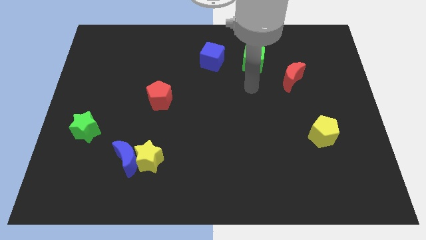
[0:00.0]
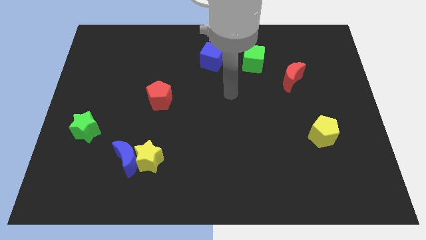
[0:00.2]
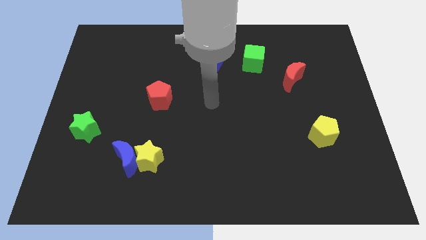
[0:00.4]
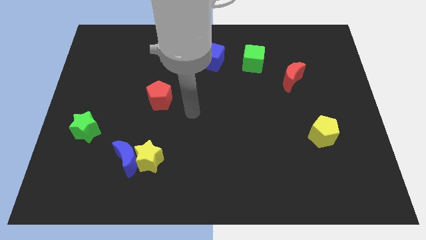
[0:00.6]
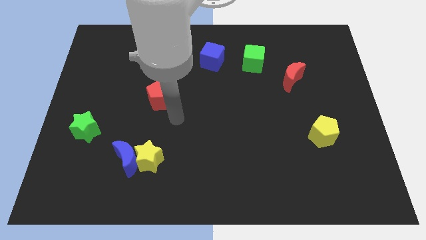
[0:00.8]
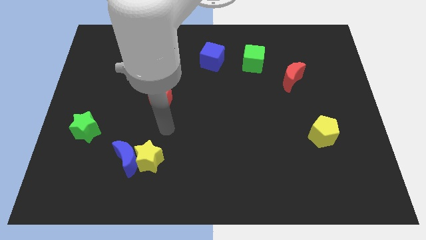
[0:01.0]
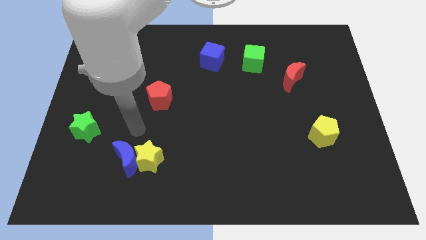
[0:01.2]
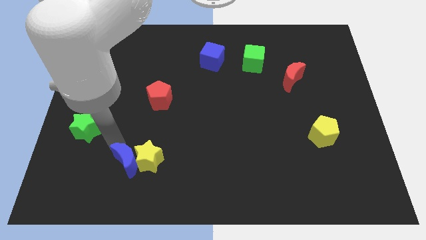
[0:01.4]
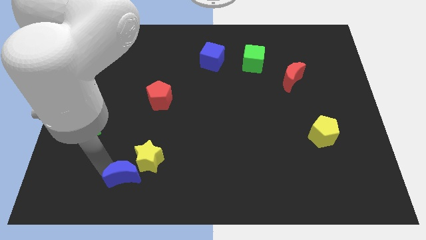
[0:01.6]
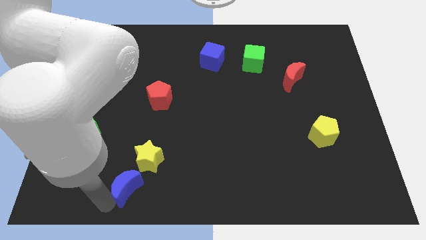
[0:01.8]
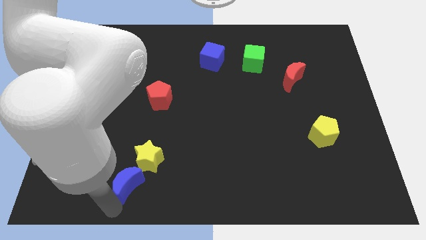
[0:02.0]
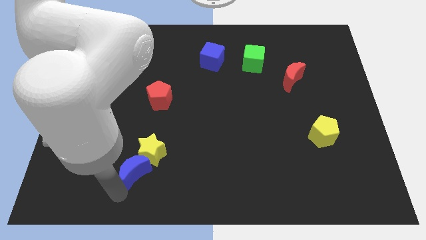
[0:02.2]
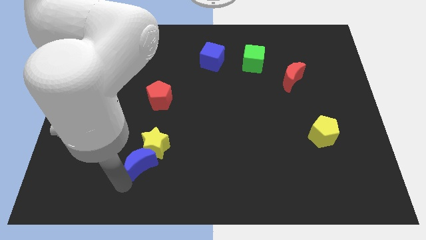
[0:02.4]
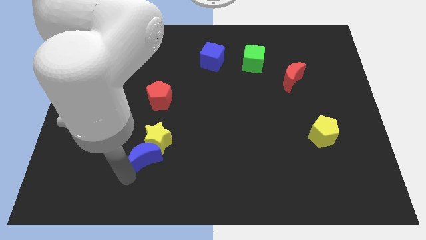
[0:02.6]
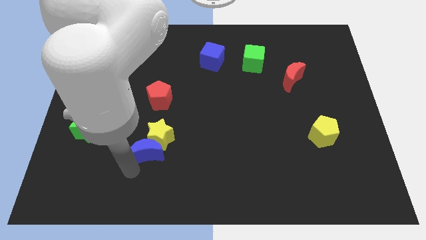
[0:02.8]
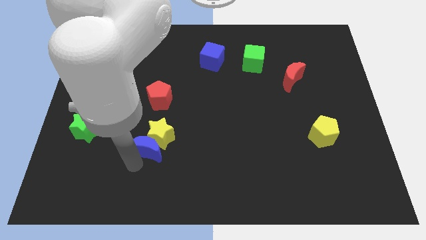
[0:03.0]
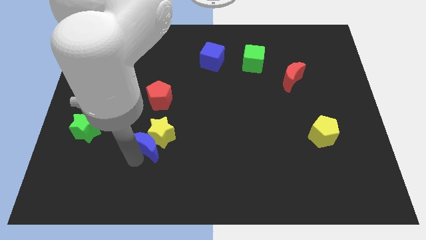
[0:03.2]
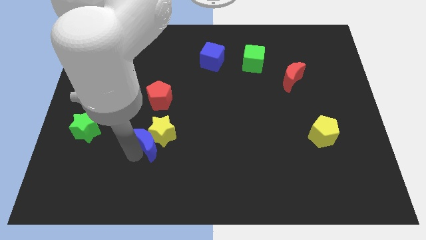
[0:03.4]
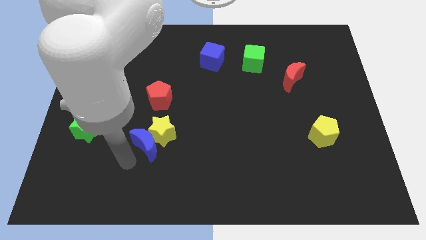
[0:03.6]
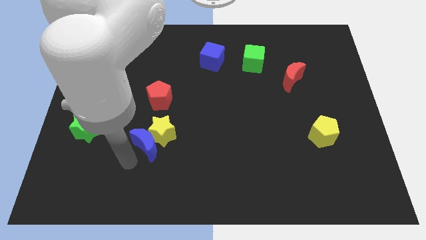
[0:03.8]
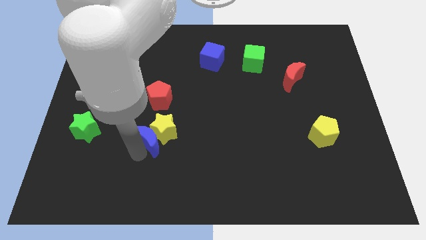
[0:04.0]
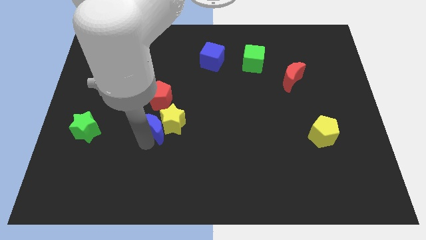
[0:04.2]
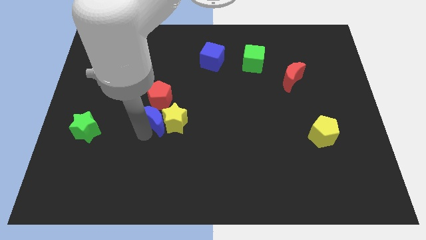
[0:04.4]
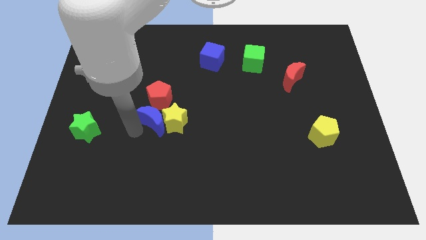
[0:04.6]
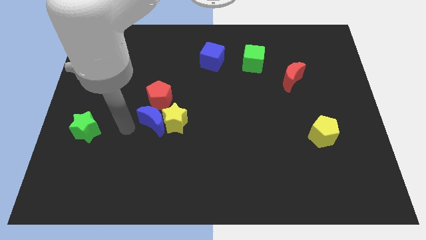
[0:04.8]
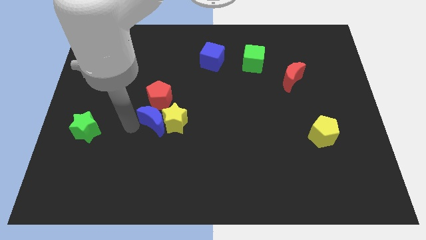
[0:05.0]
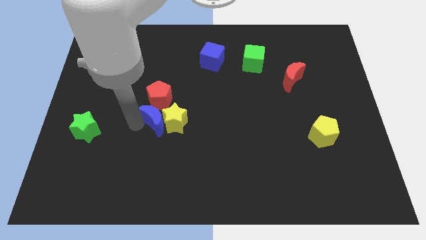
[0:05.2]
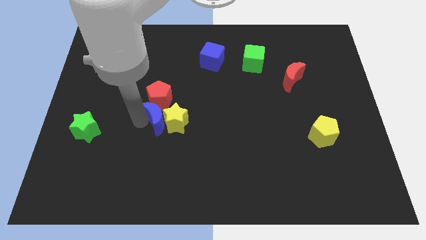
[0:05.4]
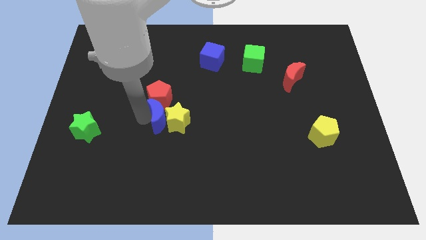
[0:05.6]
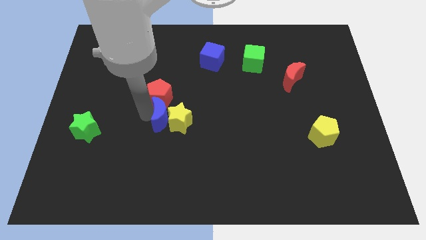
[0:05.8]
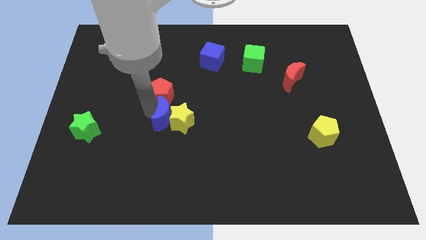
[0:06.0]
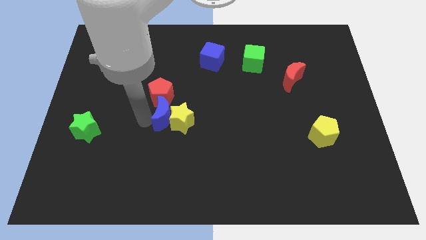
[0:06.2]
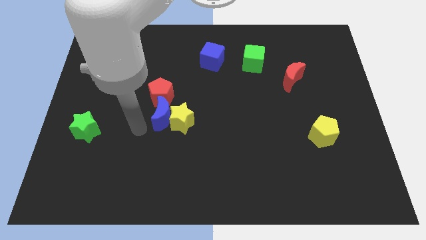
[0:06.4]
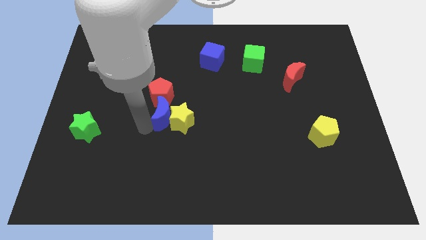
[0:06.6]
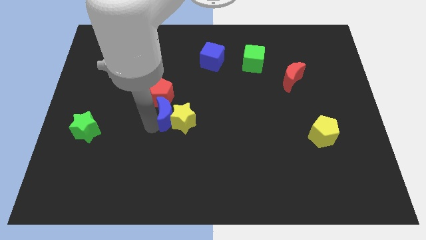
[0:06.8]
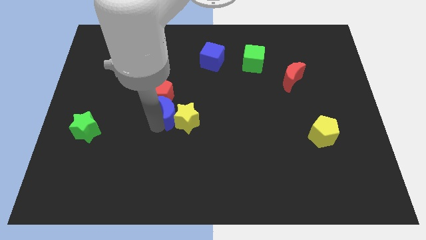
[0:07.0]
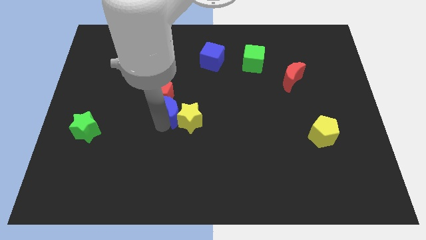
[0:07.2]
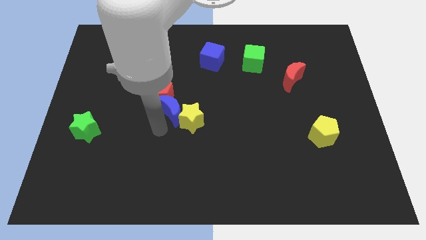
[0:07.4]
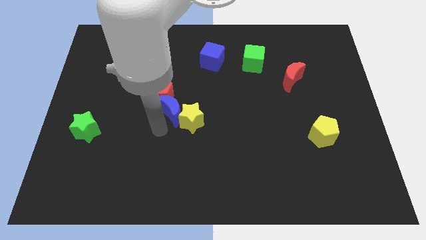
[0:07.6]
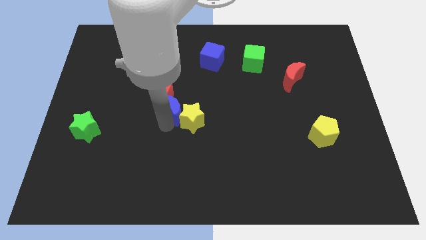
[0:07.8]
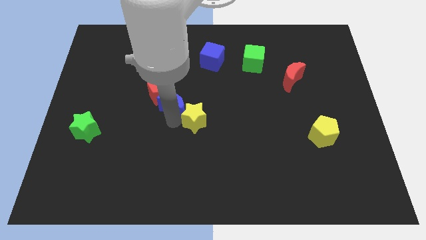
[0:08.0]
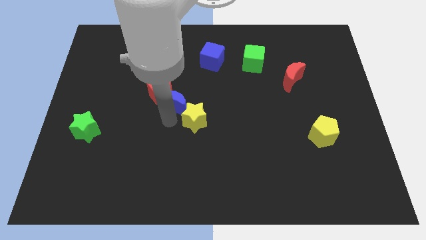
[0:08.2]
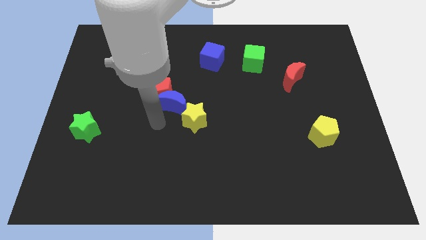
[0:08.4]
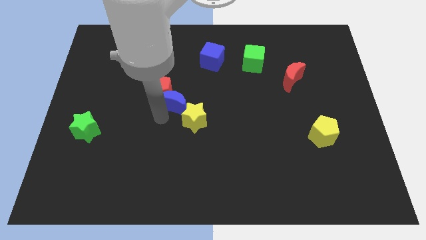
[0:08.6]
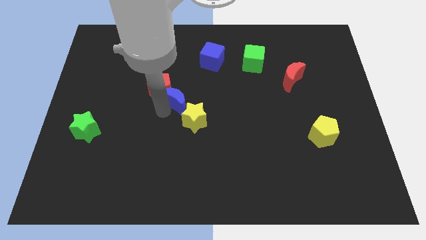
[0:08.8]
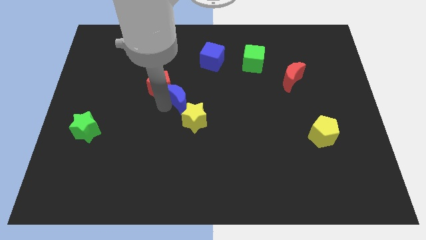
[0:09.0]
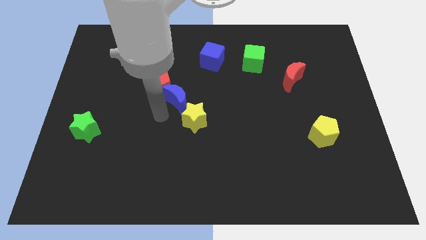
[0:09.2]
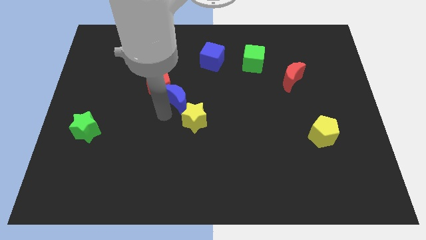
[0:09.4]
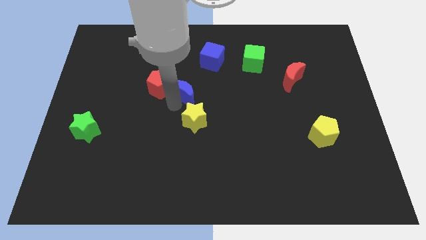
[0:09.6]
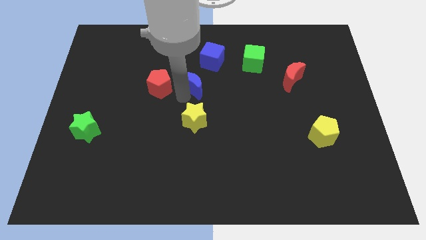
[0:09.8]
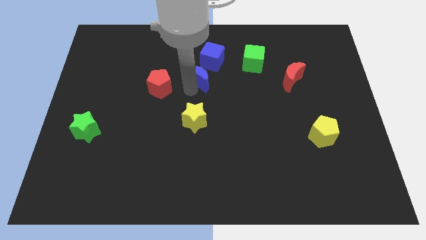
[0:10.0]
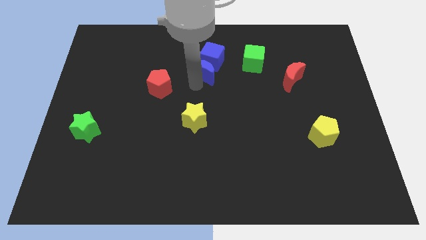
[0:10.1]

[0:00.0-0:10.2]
push the blue moon to the blue cube

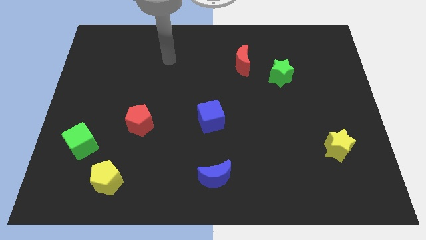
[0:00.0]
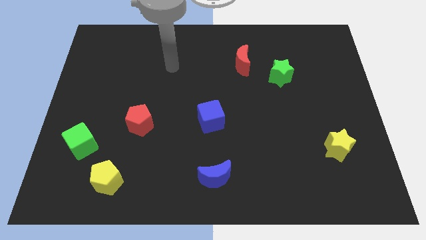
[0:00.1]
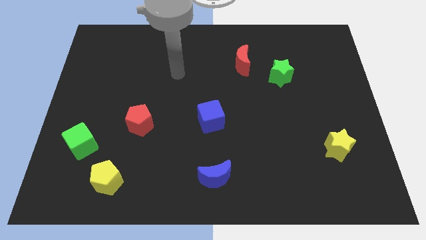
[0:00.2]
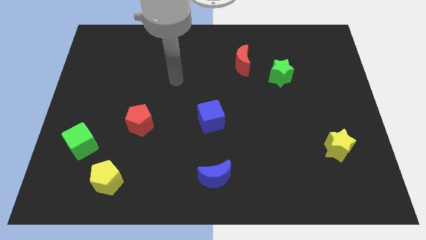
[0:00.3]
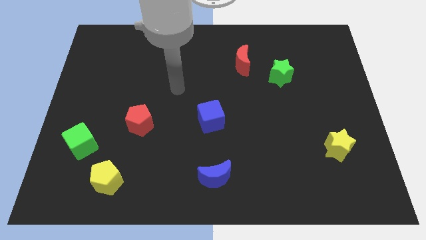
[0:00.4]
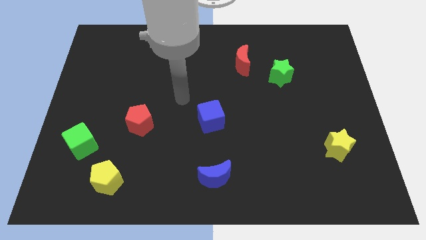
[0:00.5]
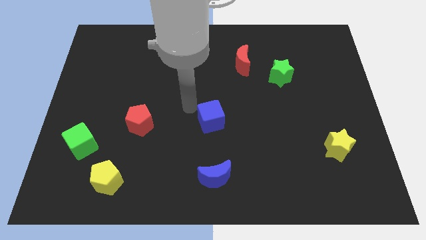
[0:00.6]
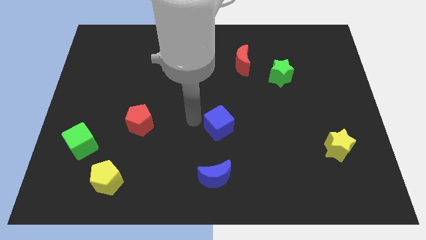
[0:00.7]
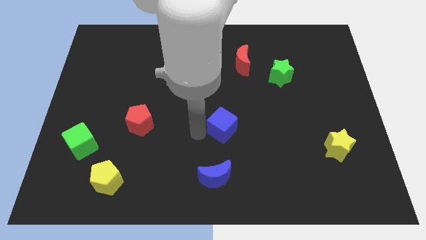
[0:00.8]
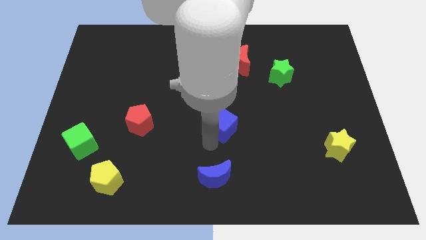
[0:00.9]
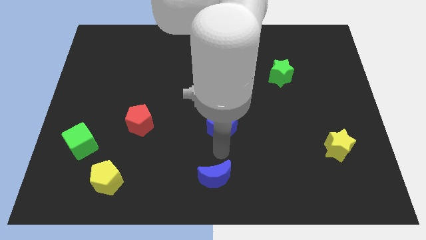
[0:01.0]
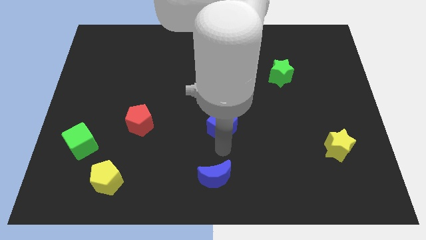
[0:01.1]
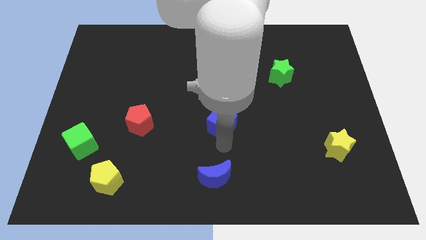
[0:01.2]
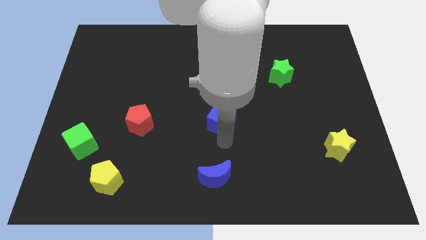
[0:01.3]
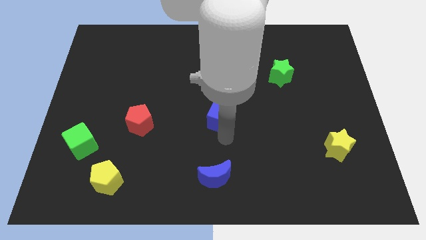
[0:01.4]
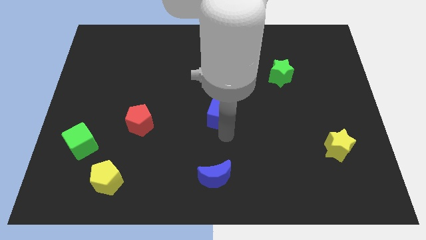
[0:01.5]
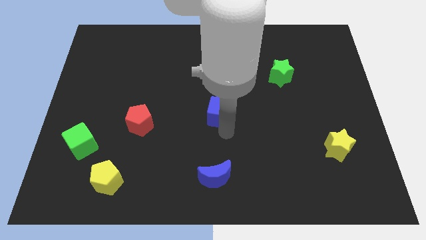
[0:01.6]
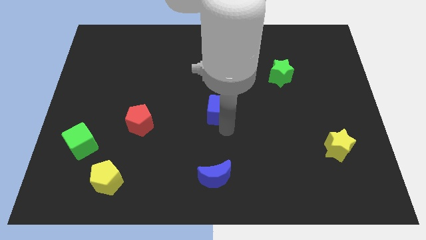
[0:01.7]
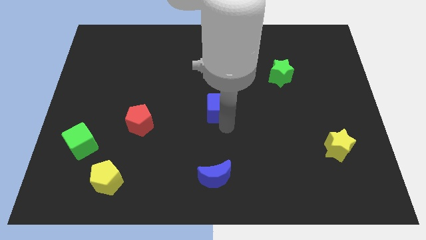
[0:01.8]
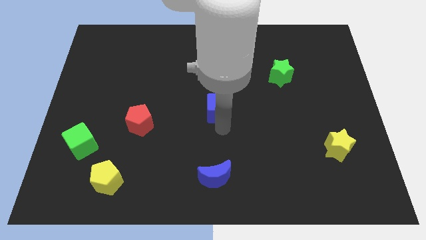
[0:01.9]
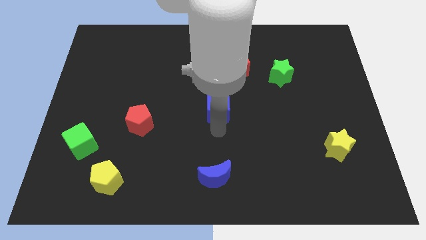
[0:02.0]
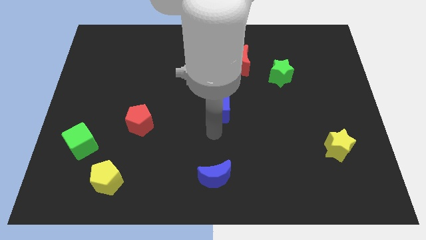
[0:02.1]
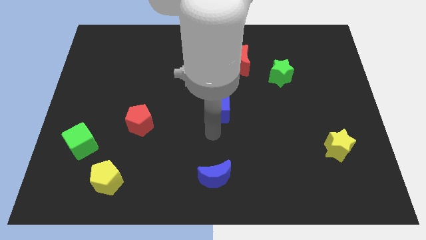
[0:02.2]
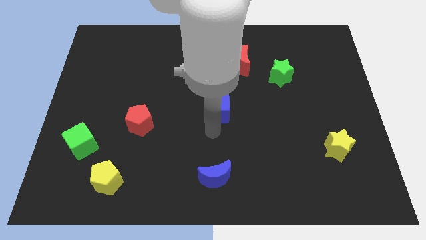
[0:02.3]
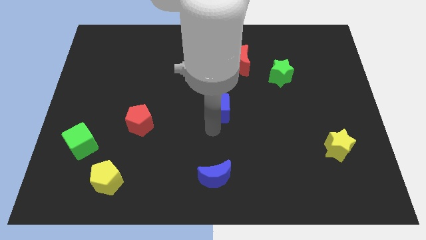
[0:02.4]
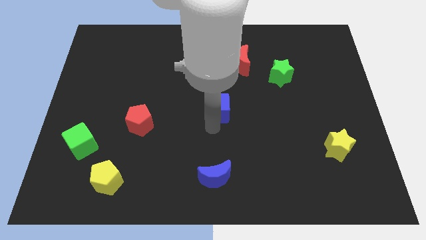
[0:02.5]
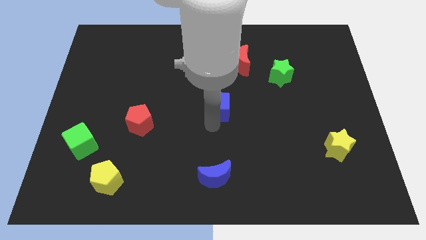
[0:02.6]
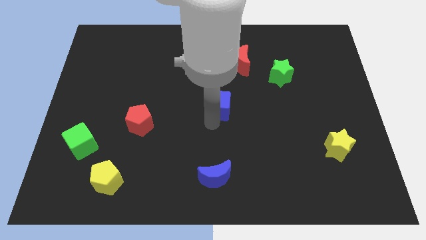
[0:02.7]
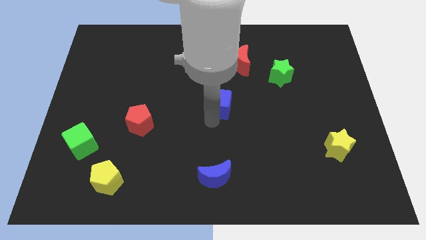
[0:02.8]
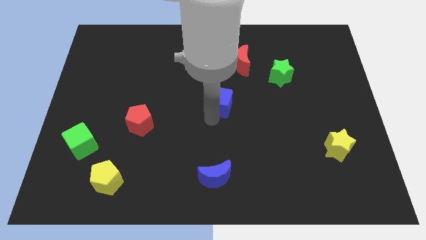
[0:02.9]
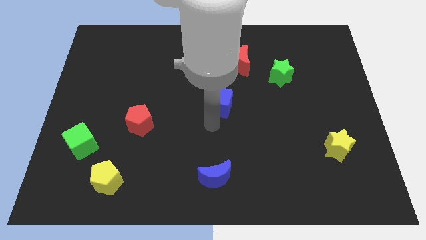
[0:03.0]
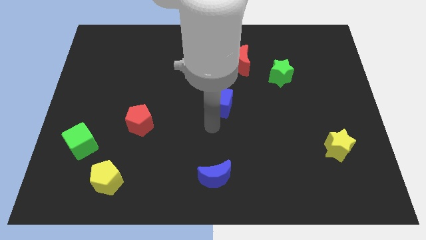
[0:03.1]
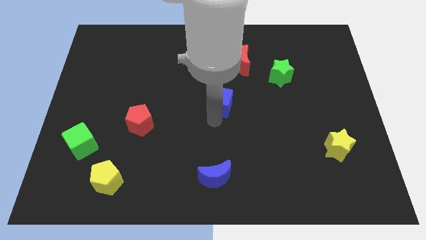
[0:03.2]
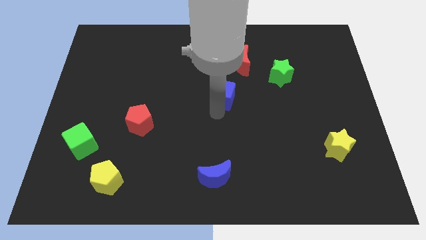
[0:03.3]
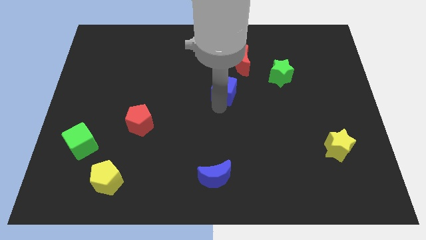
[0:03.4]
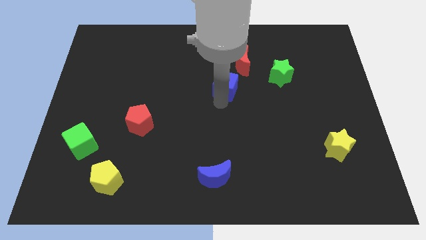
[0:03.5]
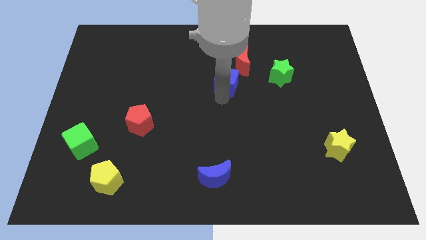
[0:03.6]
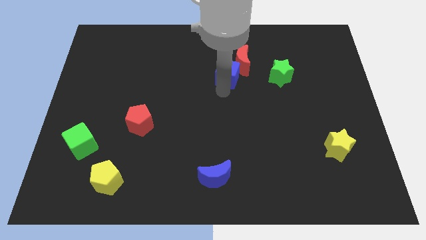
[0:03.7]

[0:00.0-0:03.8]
move the blue cube close to the red moon
